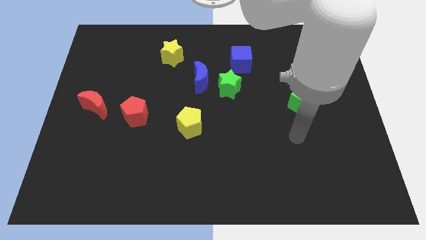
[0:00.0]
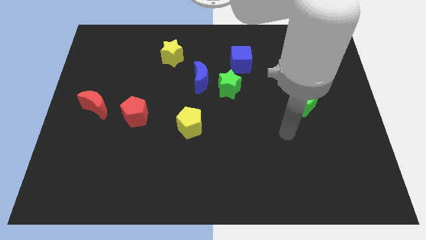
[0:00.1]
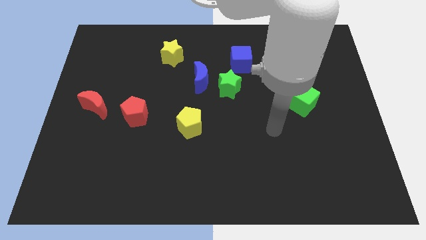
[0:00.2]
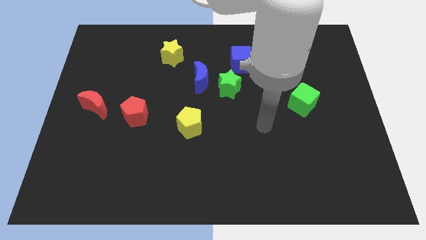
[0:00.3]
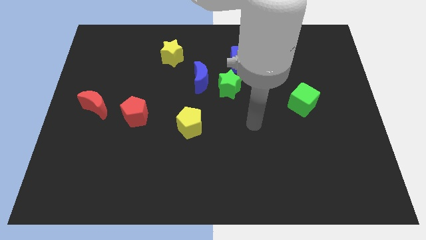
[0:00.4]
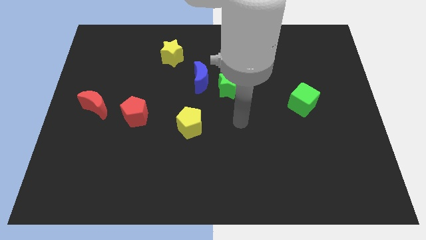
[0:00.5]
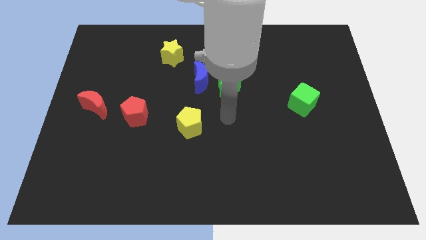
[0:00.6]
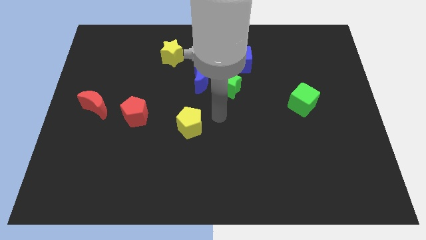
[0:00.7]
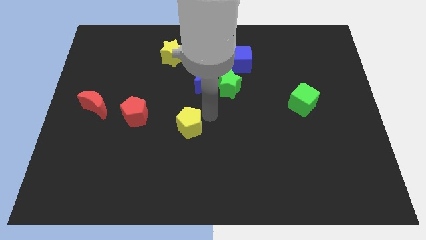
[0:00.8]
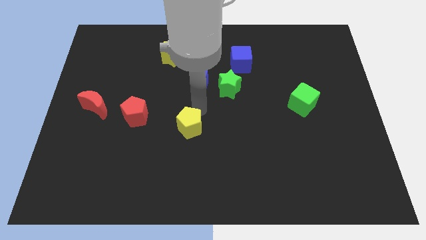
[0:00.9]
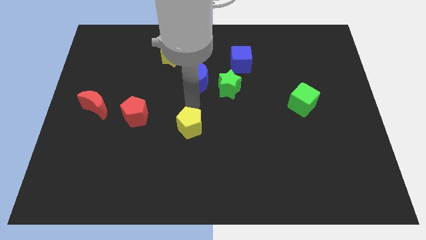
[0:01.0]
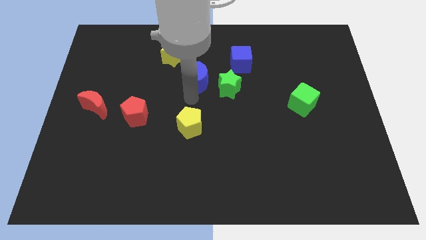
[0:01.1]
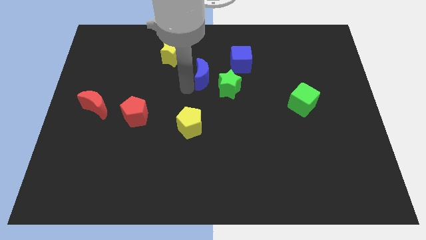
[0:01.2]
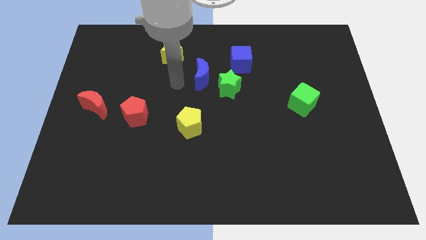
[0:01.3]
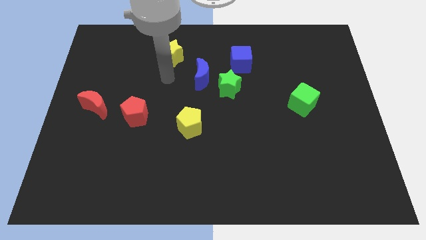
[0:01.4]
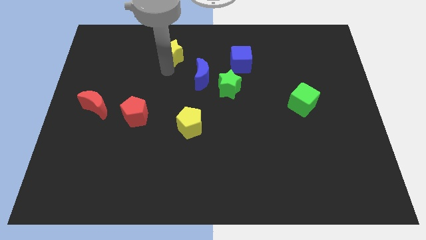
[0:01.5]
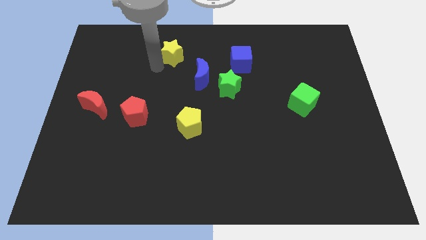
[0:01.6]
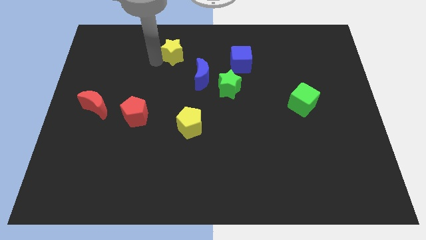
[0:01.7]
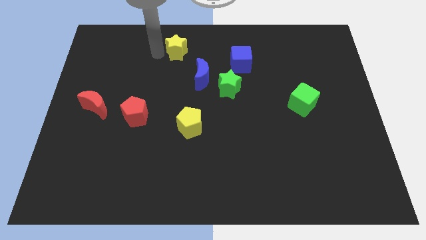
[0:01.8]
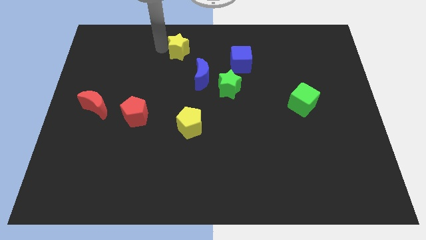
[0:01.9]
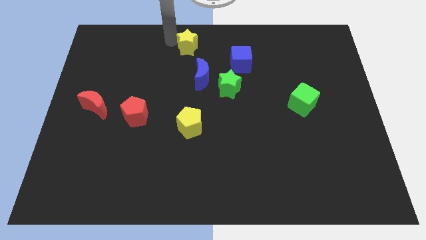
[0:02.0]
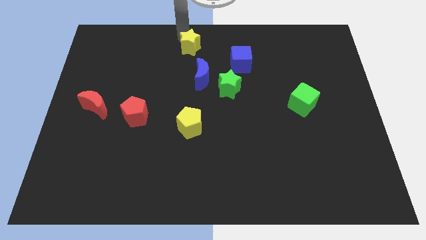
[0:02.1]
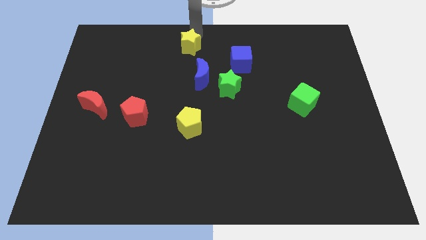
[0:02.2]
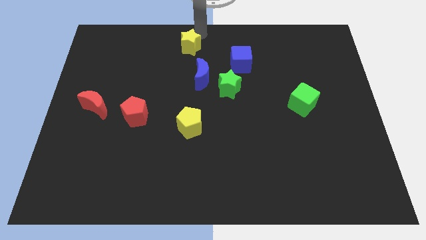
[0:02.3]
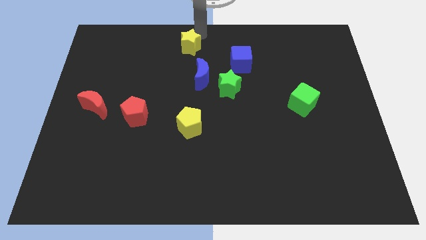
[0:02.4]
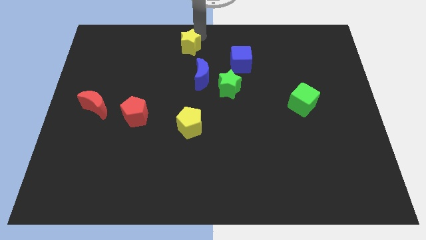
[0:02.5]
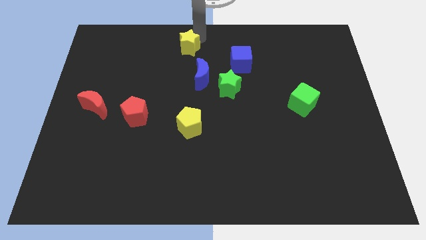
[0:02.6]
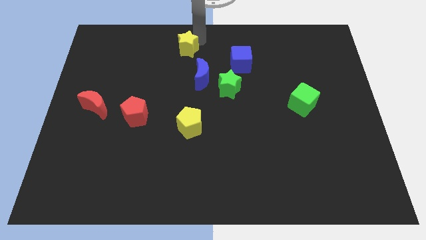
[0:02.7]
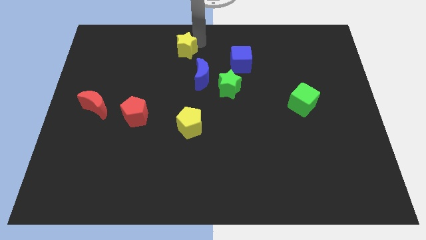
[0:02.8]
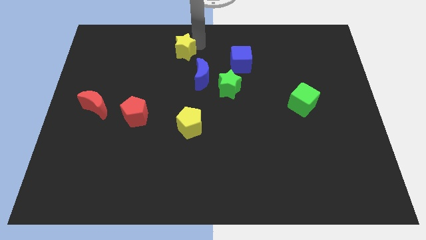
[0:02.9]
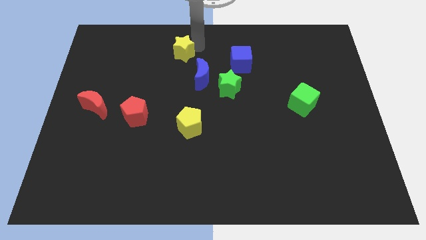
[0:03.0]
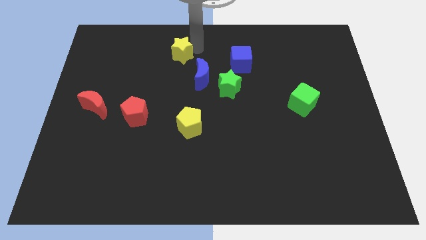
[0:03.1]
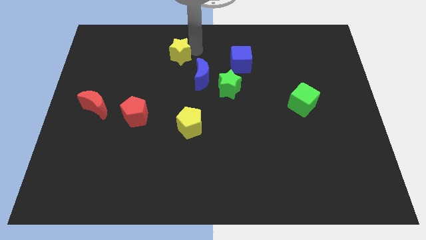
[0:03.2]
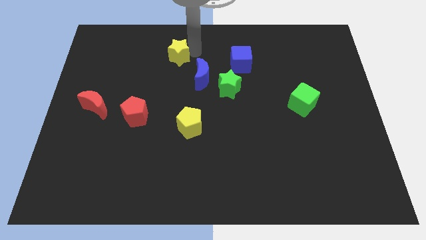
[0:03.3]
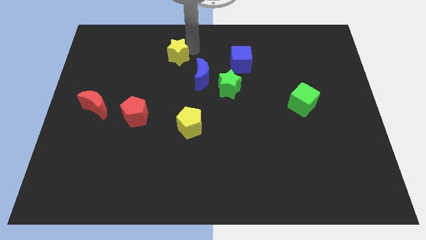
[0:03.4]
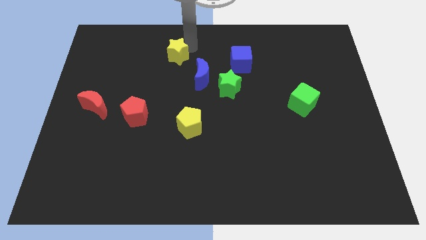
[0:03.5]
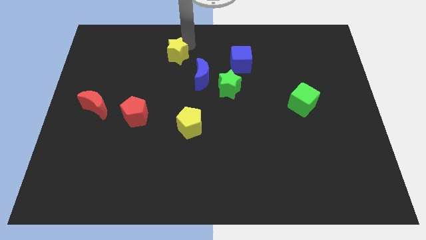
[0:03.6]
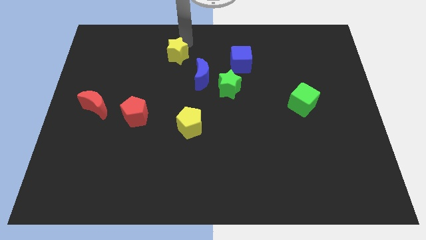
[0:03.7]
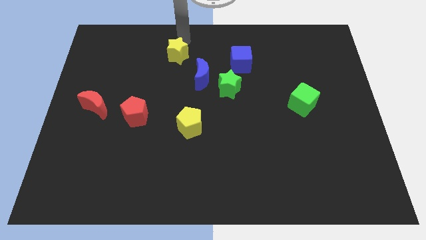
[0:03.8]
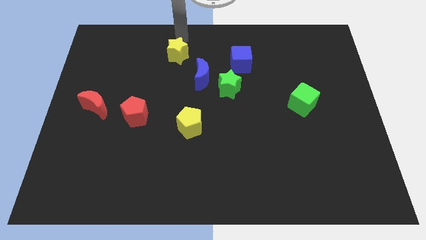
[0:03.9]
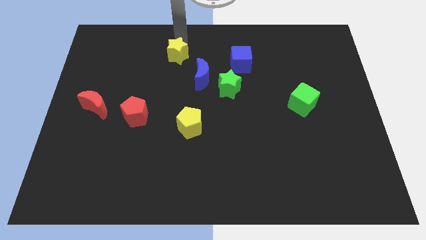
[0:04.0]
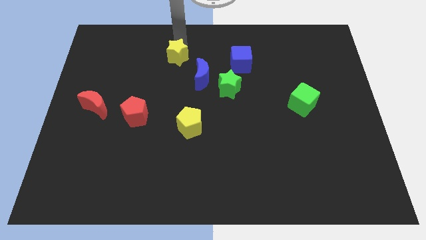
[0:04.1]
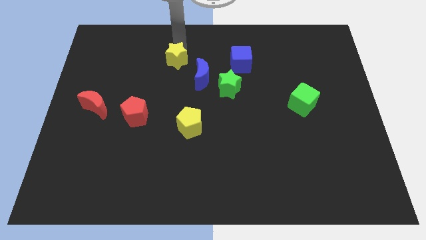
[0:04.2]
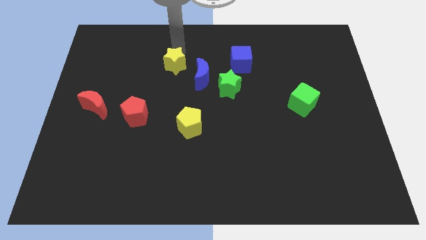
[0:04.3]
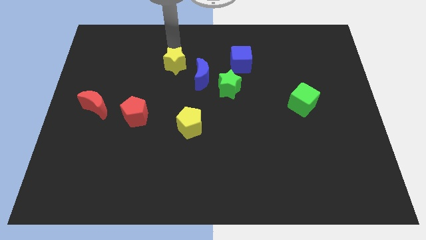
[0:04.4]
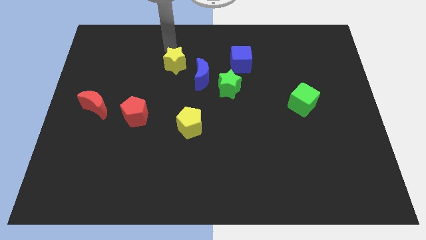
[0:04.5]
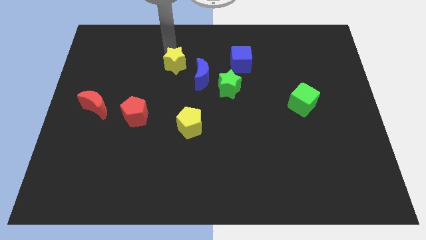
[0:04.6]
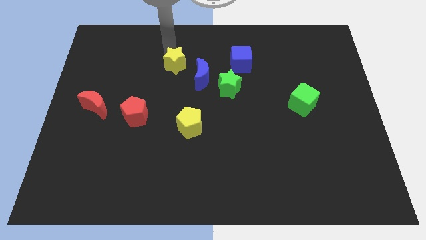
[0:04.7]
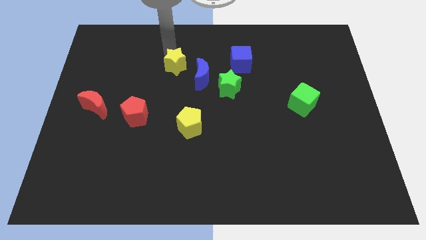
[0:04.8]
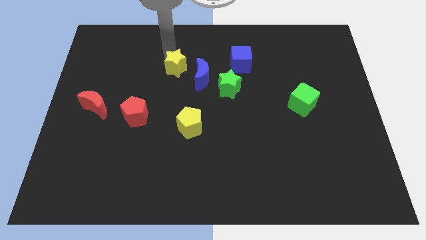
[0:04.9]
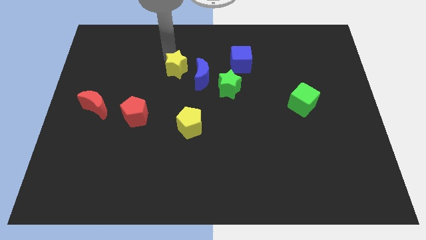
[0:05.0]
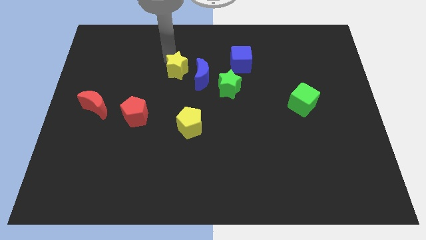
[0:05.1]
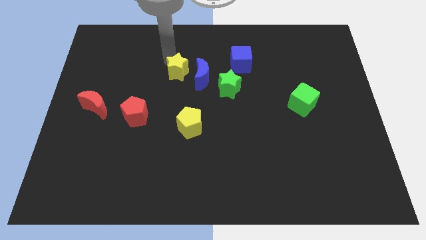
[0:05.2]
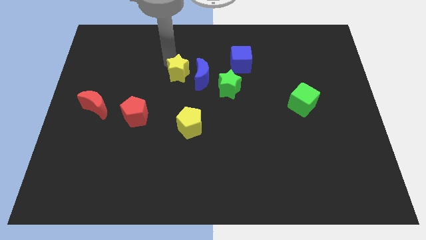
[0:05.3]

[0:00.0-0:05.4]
slide the yellow star to the center

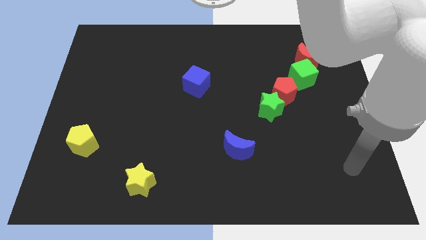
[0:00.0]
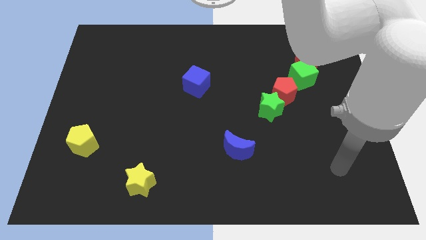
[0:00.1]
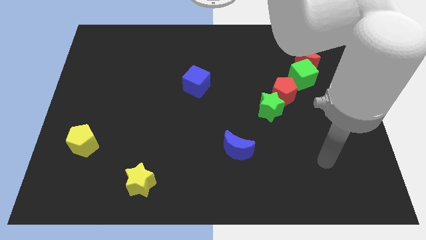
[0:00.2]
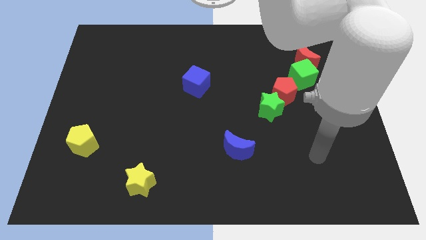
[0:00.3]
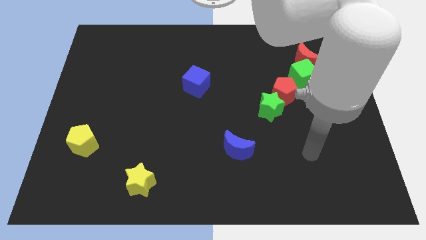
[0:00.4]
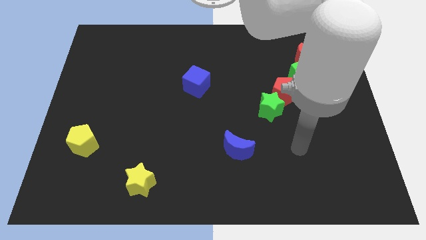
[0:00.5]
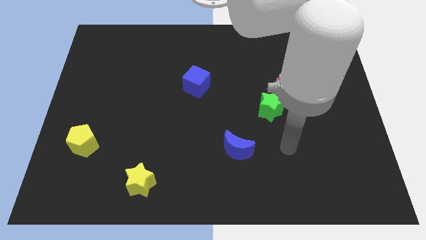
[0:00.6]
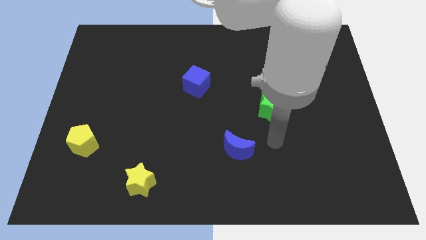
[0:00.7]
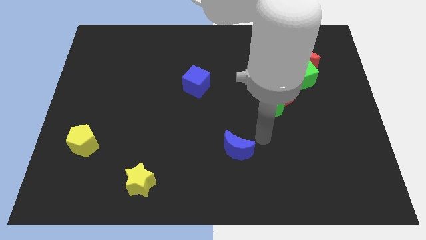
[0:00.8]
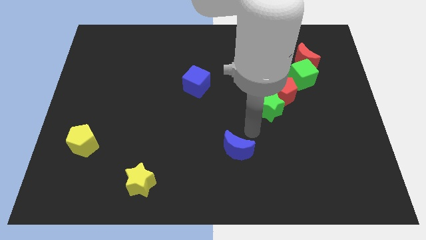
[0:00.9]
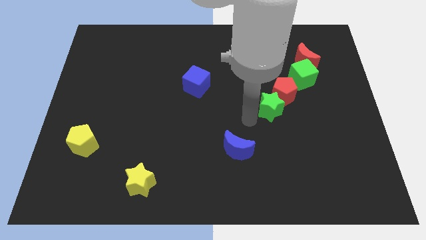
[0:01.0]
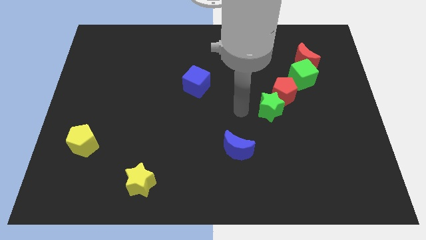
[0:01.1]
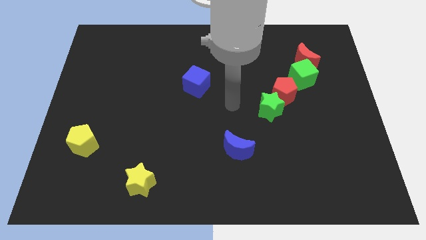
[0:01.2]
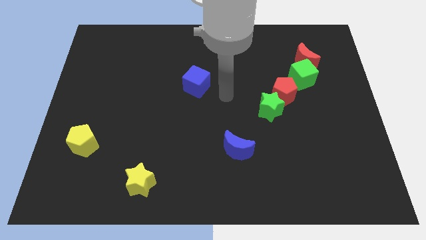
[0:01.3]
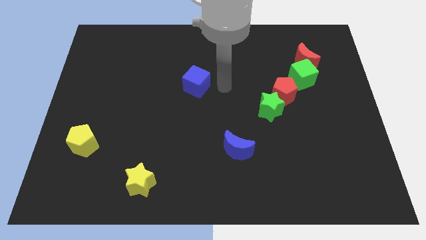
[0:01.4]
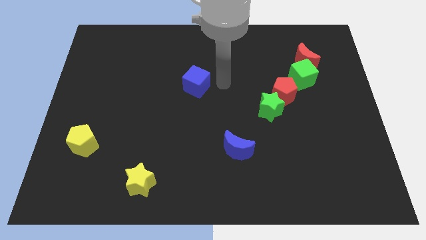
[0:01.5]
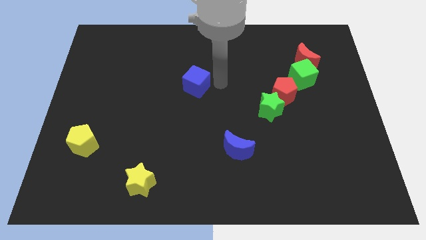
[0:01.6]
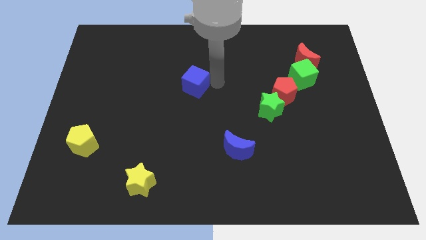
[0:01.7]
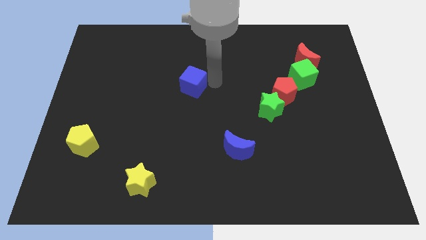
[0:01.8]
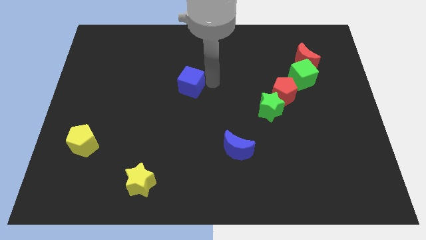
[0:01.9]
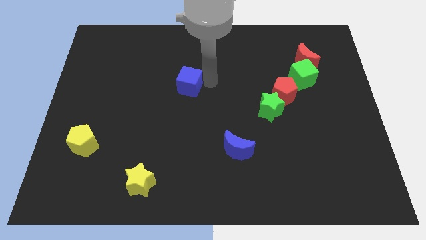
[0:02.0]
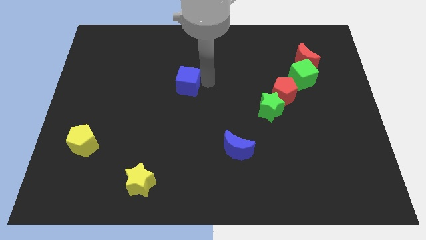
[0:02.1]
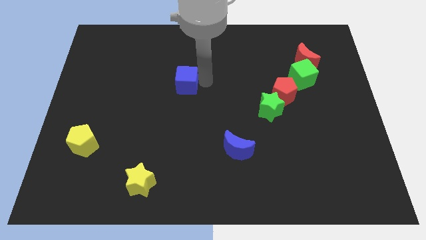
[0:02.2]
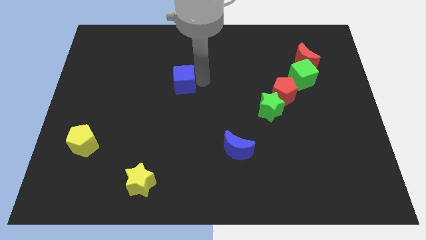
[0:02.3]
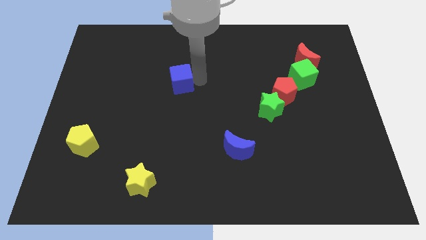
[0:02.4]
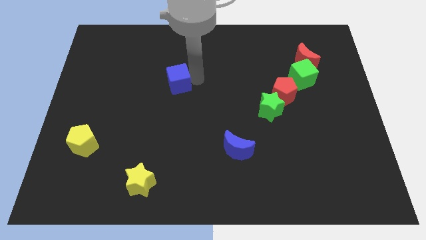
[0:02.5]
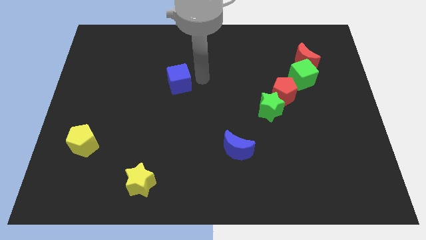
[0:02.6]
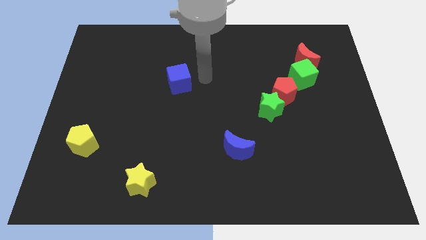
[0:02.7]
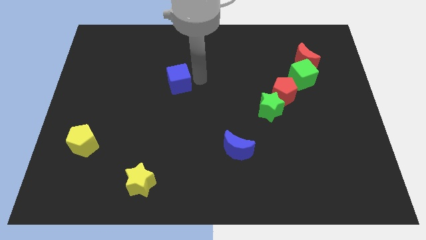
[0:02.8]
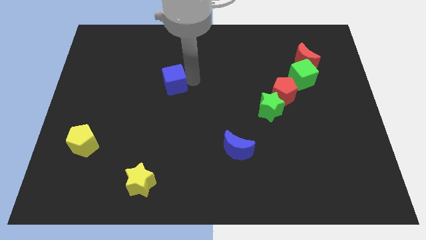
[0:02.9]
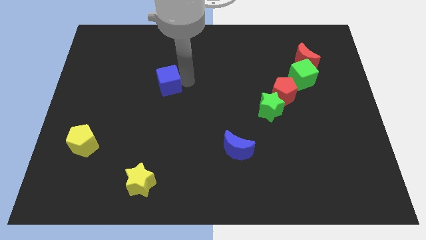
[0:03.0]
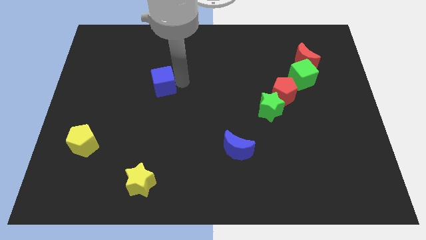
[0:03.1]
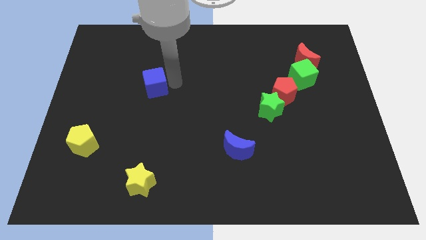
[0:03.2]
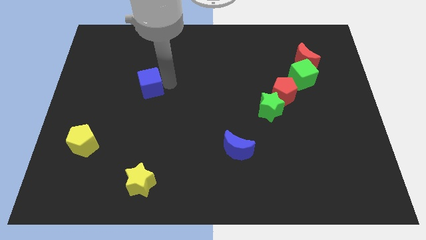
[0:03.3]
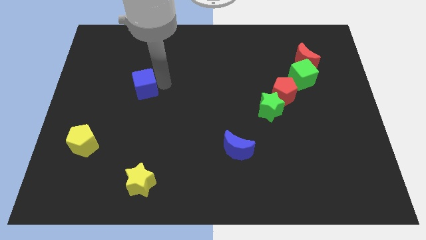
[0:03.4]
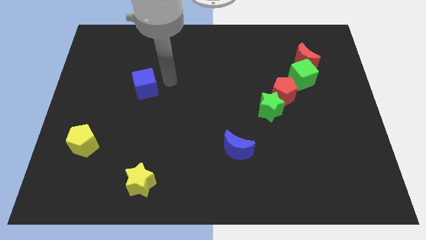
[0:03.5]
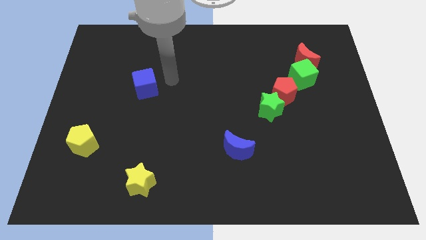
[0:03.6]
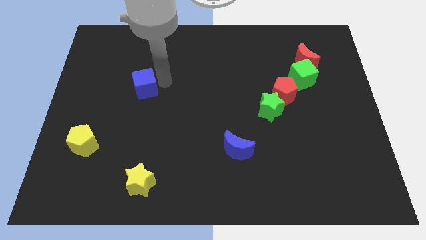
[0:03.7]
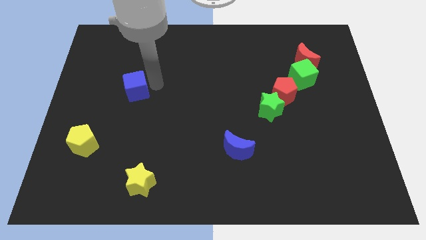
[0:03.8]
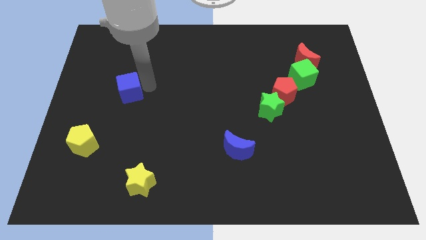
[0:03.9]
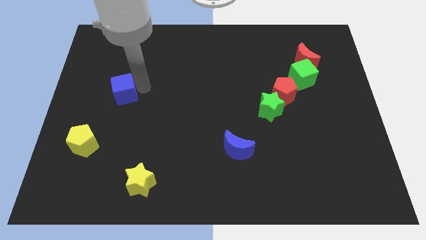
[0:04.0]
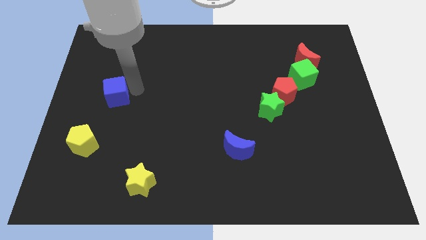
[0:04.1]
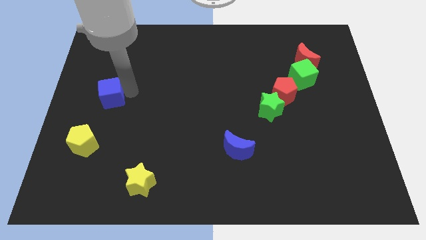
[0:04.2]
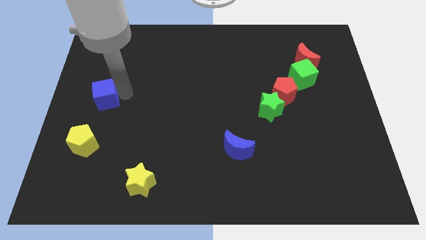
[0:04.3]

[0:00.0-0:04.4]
slide the blue cube to the center left
